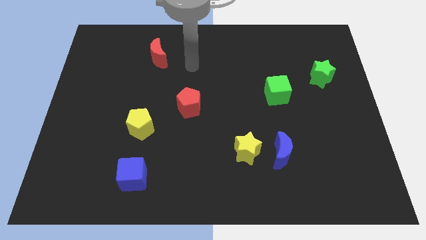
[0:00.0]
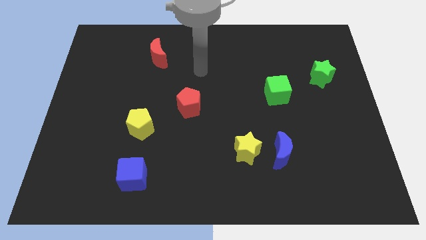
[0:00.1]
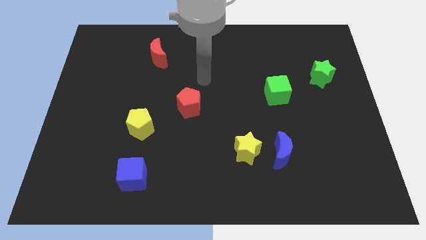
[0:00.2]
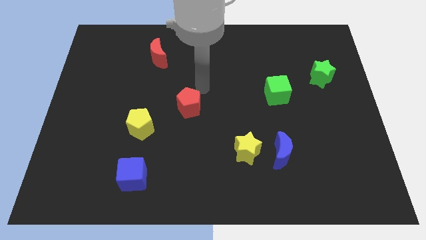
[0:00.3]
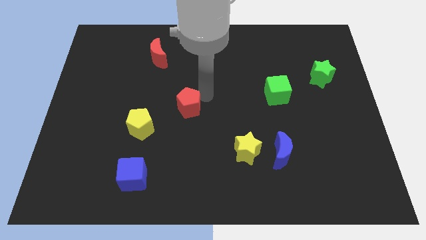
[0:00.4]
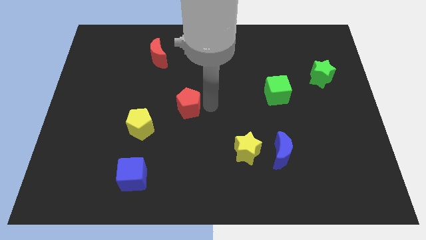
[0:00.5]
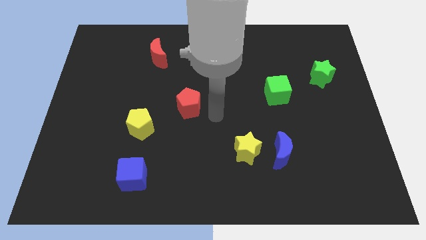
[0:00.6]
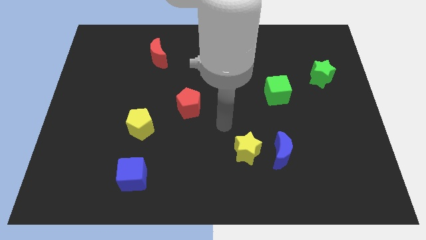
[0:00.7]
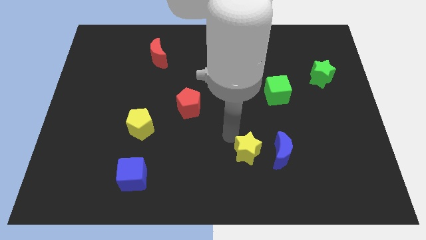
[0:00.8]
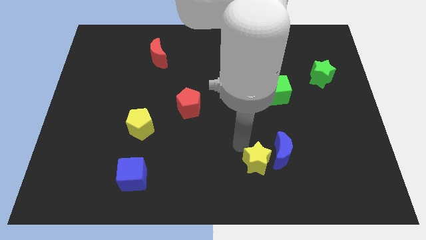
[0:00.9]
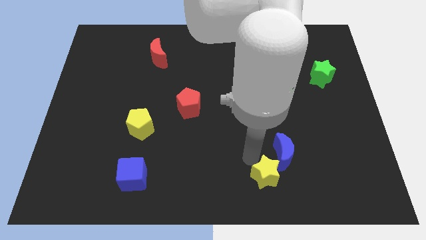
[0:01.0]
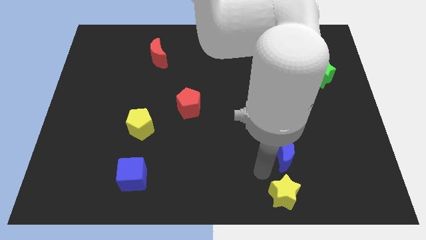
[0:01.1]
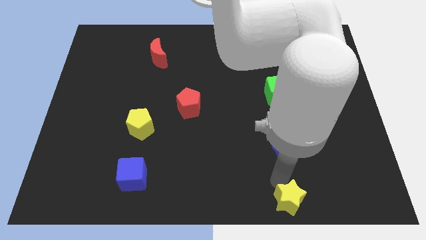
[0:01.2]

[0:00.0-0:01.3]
pull the blue moon apart from the yellow star

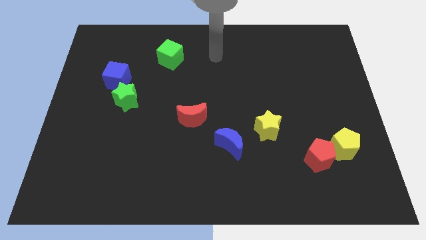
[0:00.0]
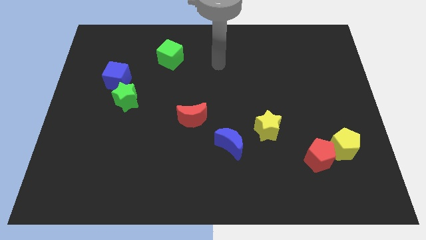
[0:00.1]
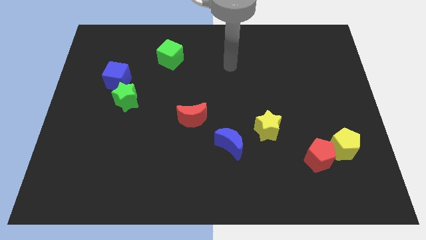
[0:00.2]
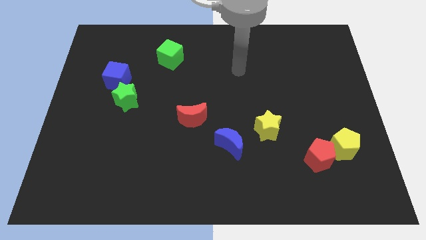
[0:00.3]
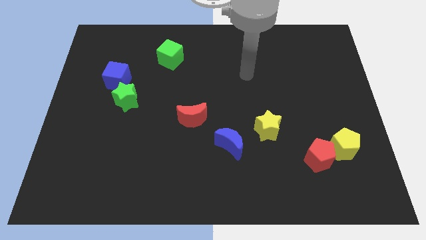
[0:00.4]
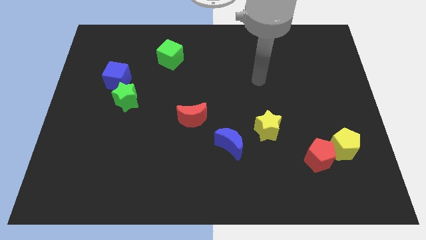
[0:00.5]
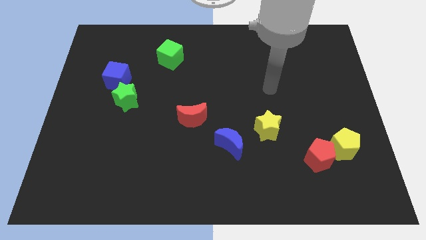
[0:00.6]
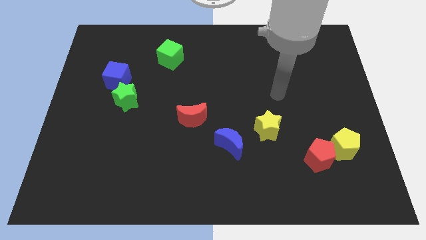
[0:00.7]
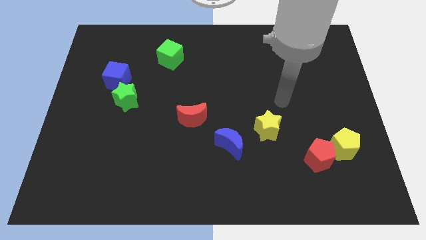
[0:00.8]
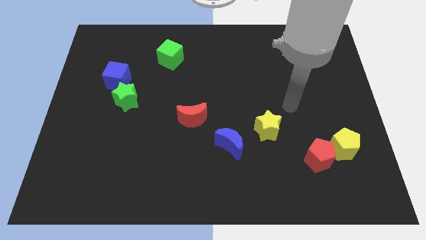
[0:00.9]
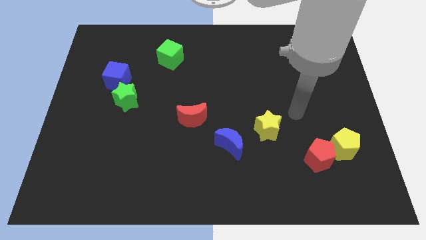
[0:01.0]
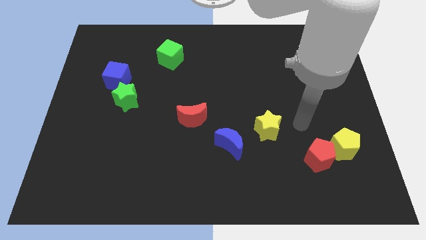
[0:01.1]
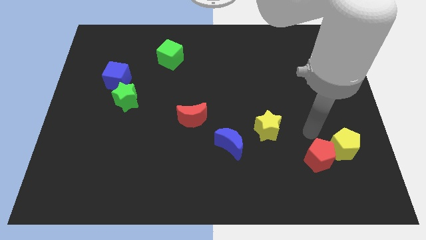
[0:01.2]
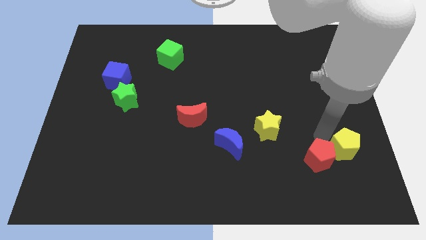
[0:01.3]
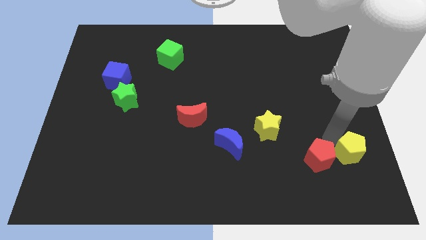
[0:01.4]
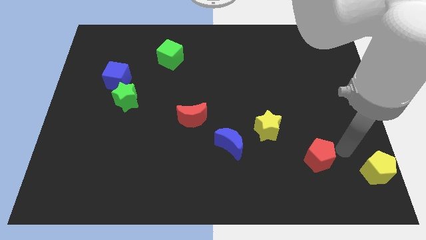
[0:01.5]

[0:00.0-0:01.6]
pull the red pentagon apart from the yellow pentagon

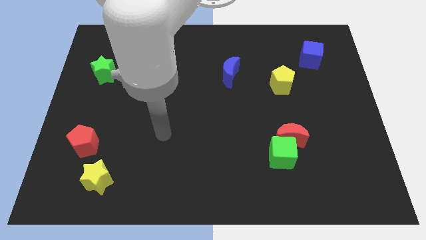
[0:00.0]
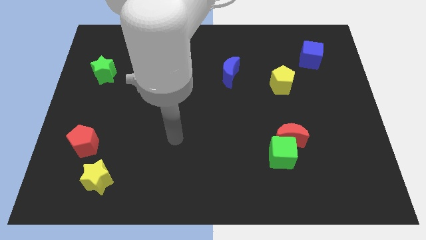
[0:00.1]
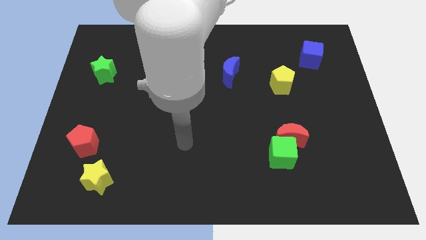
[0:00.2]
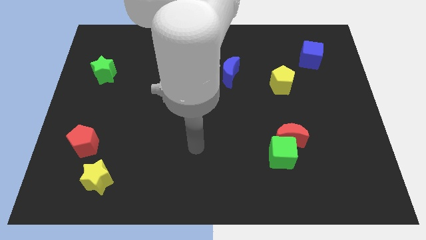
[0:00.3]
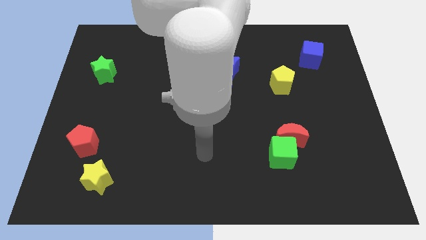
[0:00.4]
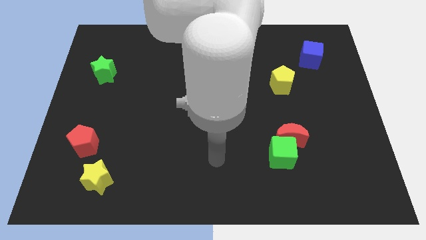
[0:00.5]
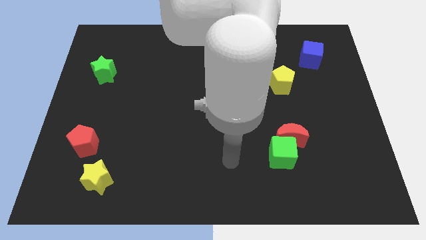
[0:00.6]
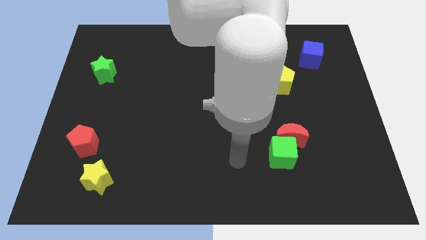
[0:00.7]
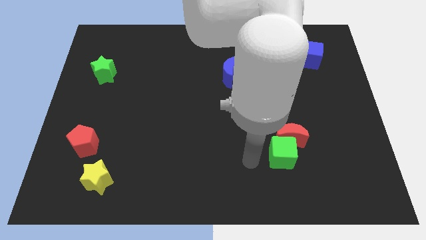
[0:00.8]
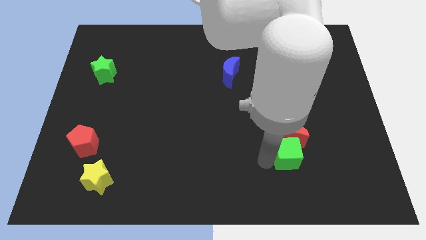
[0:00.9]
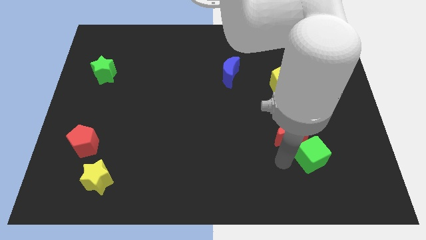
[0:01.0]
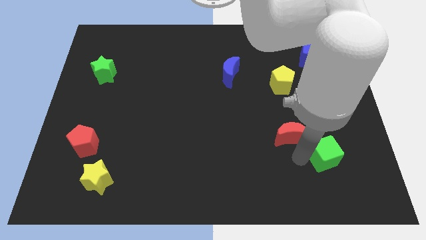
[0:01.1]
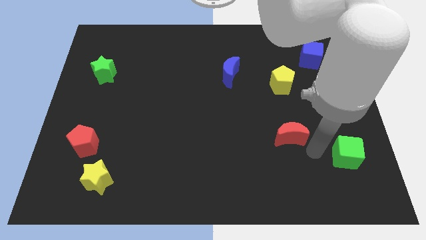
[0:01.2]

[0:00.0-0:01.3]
move the red moon away from the green cube

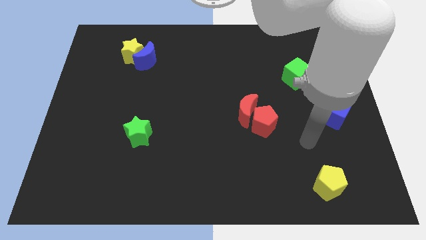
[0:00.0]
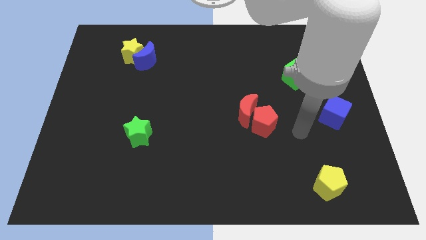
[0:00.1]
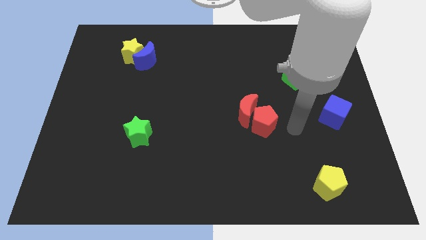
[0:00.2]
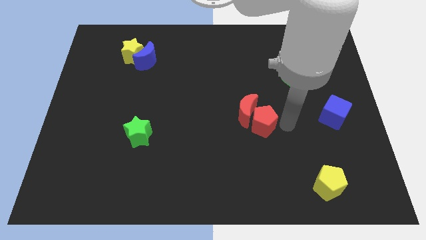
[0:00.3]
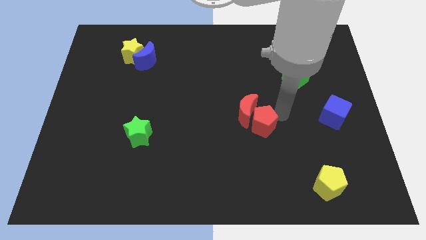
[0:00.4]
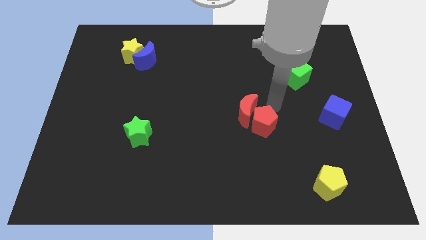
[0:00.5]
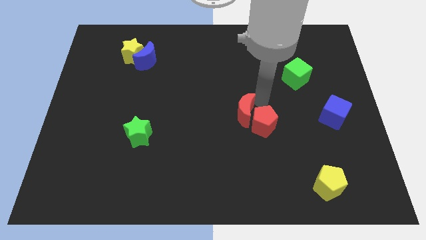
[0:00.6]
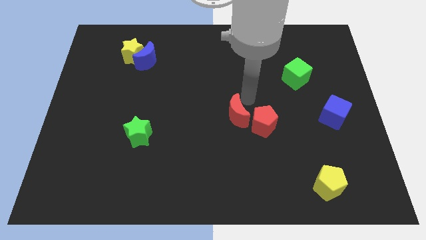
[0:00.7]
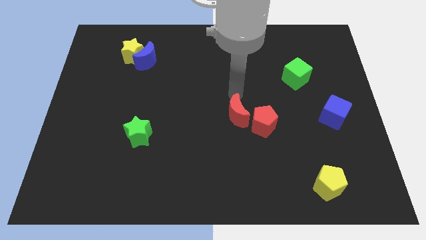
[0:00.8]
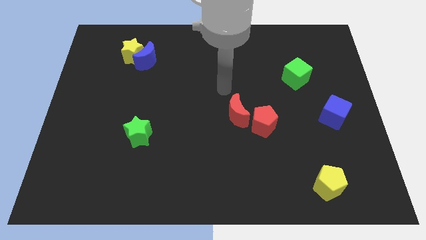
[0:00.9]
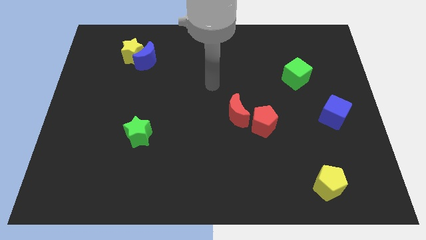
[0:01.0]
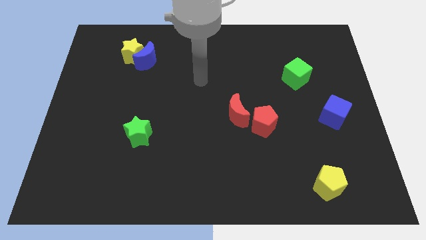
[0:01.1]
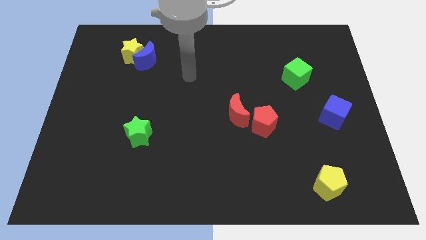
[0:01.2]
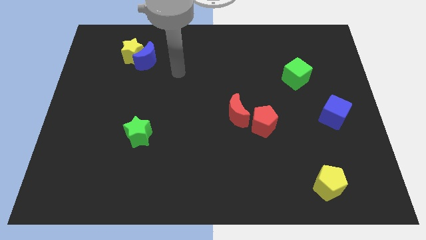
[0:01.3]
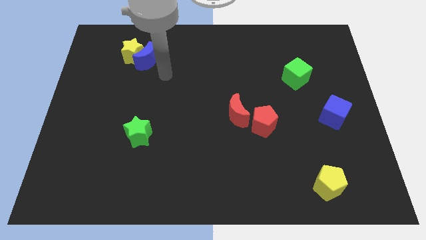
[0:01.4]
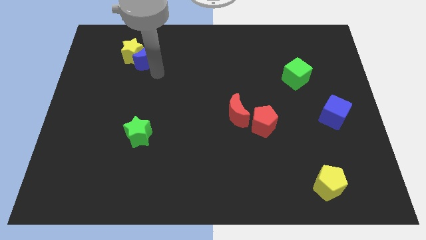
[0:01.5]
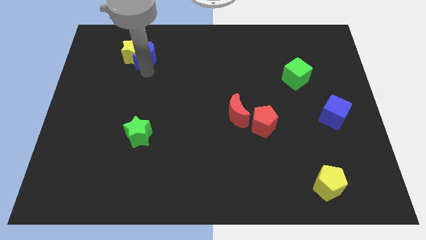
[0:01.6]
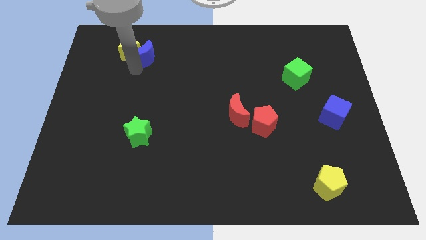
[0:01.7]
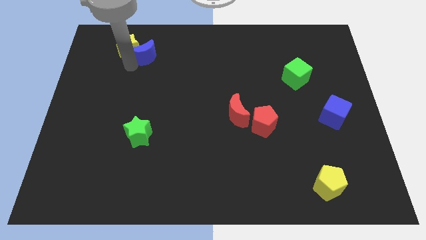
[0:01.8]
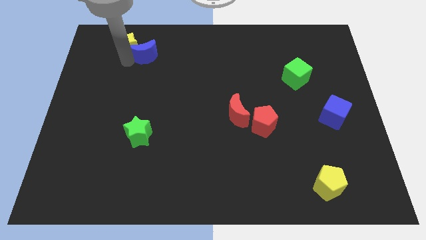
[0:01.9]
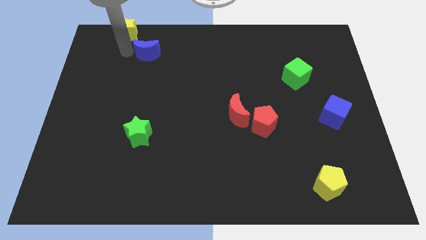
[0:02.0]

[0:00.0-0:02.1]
separate the blue moon from the yellow star

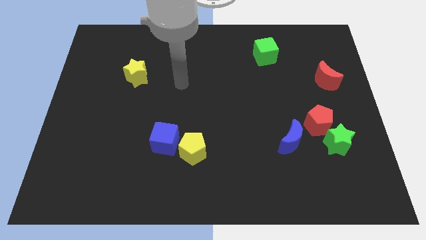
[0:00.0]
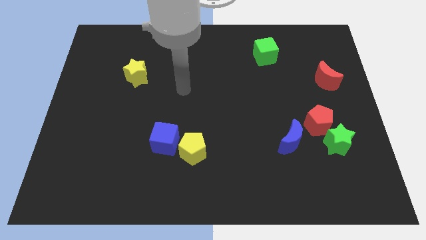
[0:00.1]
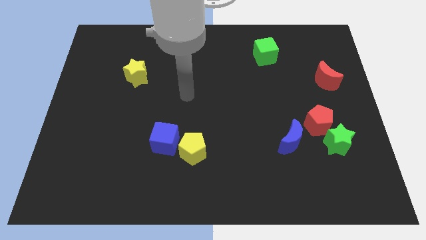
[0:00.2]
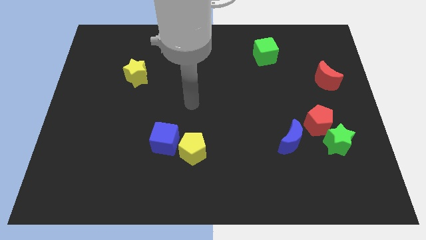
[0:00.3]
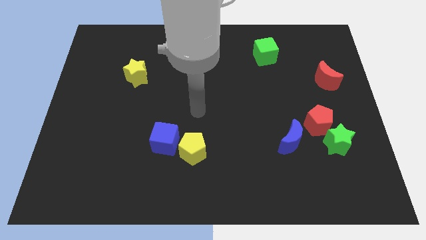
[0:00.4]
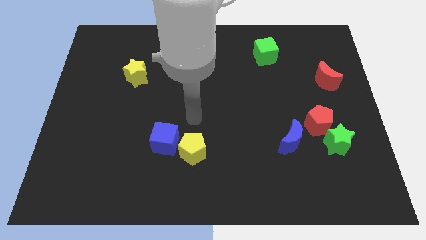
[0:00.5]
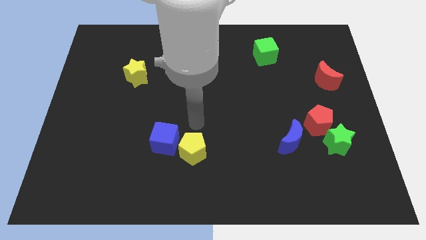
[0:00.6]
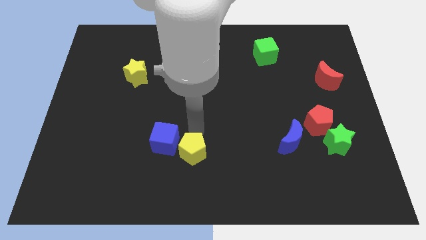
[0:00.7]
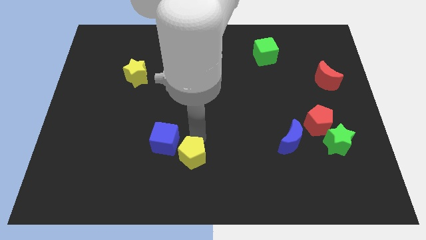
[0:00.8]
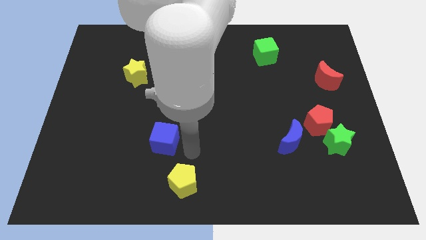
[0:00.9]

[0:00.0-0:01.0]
pull the blue cube apart from the yellow pentagon

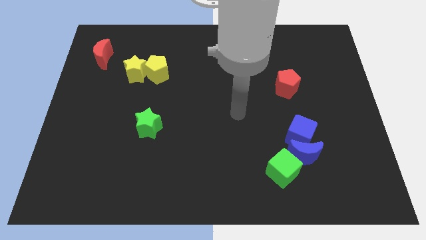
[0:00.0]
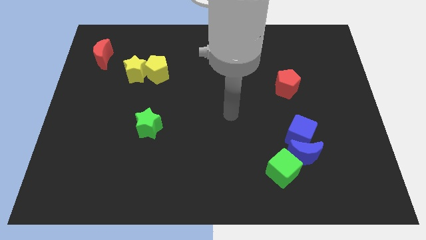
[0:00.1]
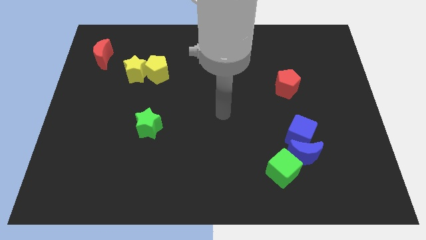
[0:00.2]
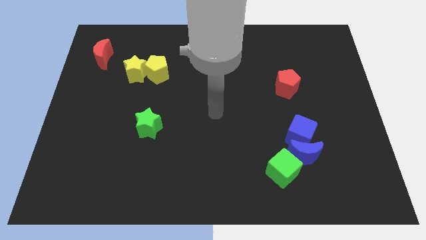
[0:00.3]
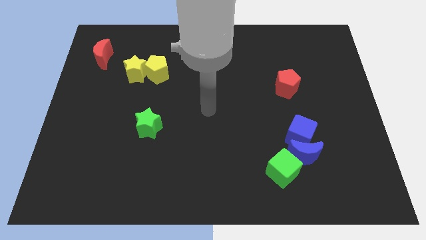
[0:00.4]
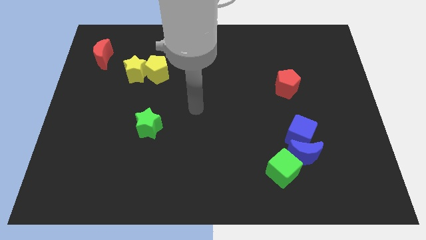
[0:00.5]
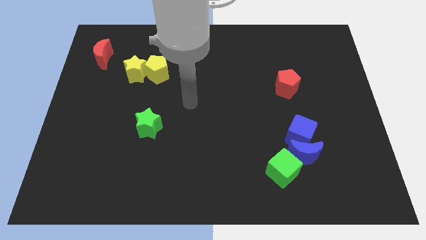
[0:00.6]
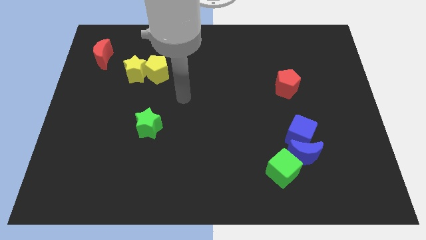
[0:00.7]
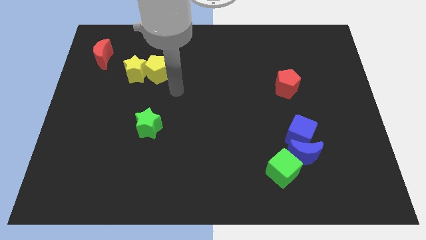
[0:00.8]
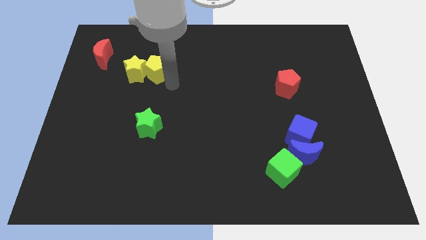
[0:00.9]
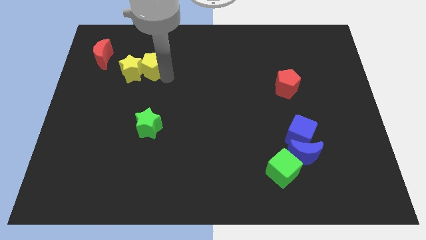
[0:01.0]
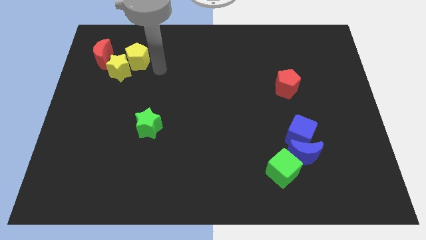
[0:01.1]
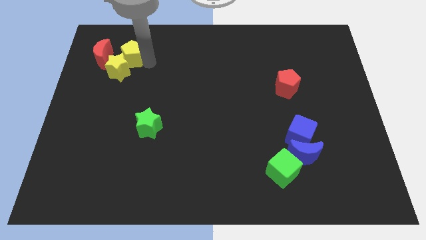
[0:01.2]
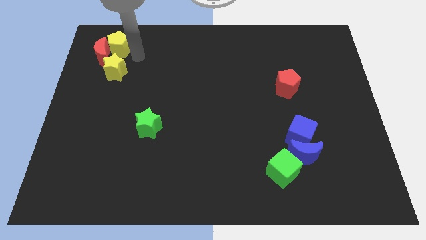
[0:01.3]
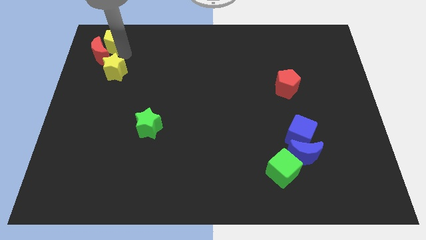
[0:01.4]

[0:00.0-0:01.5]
separate the yellow star from the yellow pentagon

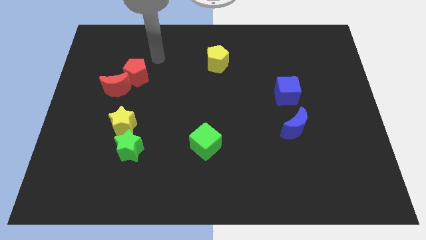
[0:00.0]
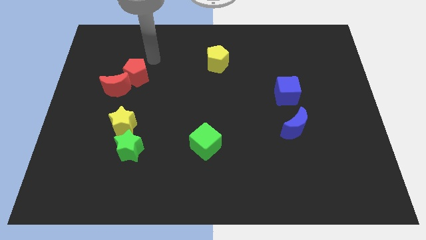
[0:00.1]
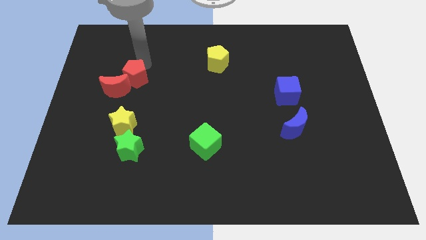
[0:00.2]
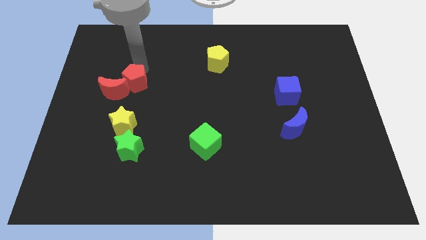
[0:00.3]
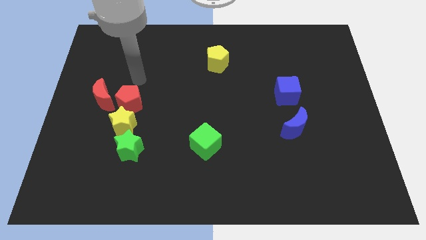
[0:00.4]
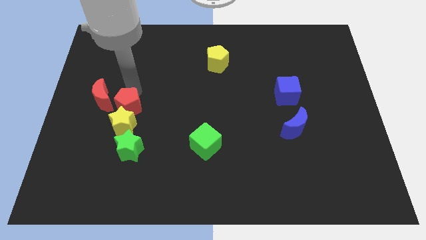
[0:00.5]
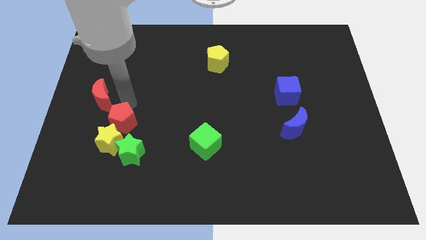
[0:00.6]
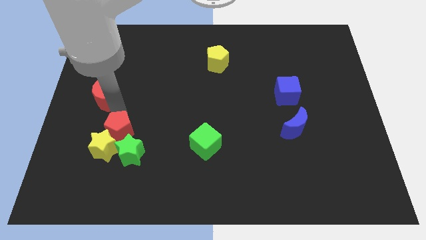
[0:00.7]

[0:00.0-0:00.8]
pull the red moon apart from the red pentagon
